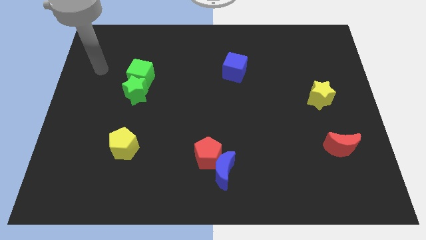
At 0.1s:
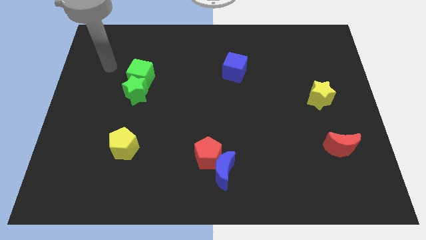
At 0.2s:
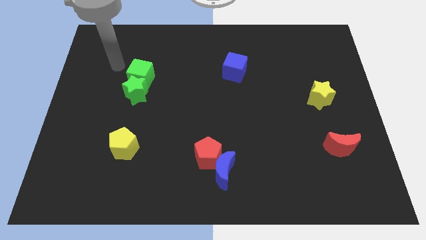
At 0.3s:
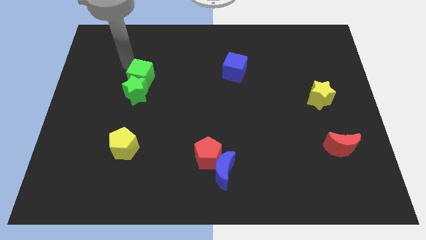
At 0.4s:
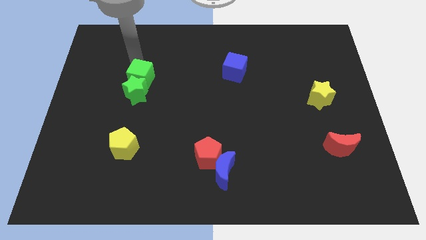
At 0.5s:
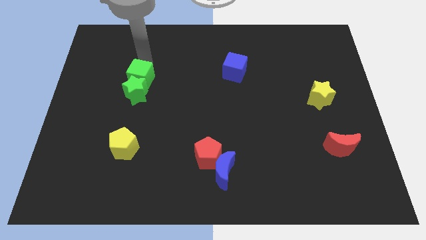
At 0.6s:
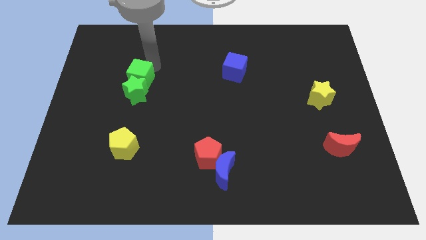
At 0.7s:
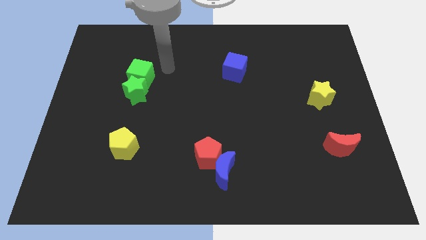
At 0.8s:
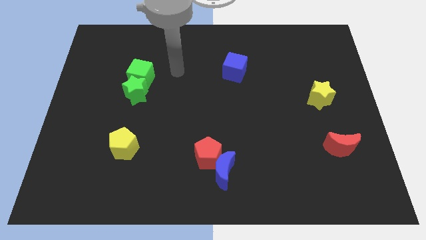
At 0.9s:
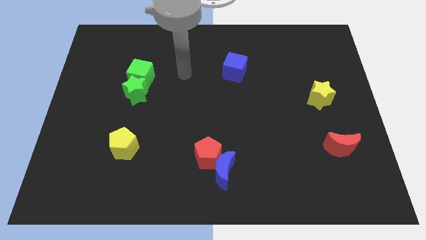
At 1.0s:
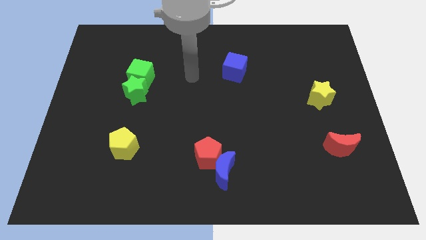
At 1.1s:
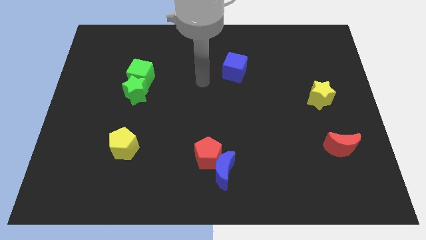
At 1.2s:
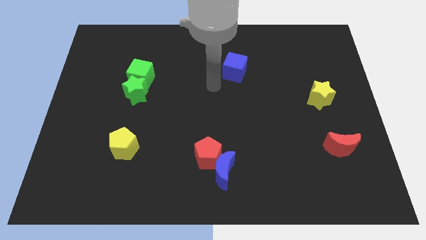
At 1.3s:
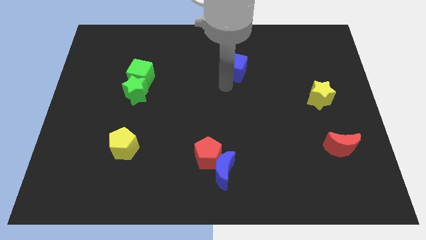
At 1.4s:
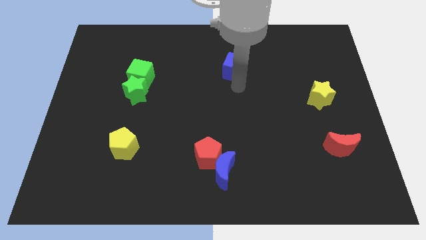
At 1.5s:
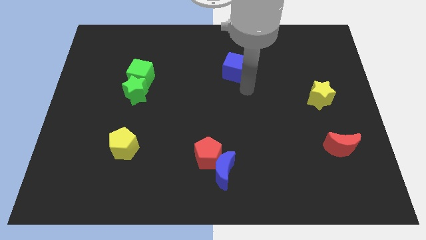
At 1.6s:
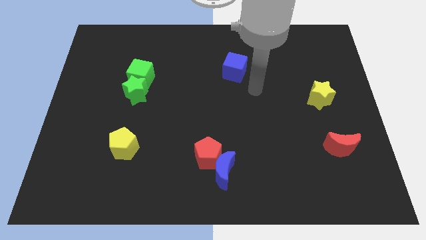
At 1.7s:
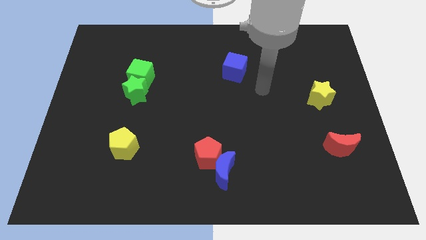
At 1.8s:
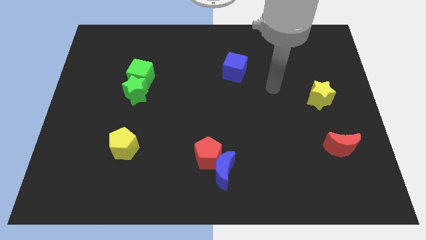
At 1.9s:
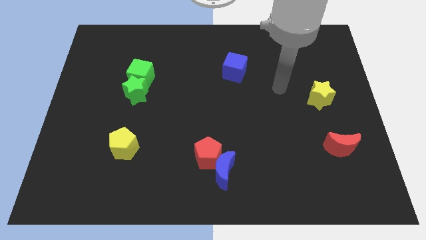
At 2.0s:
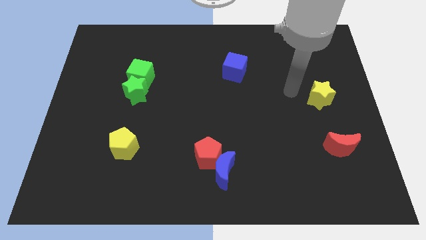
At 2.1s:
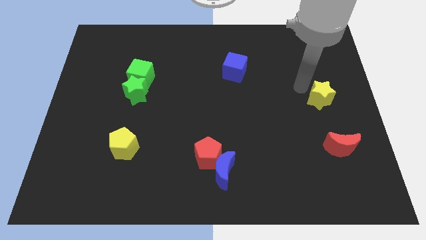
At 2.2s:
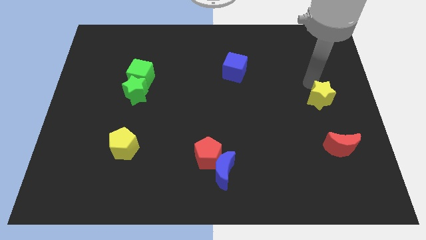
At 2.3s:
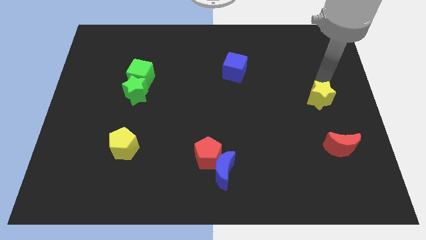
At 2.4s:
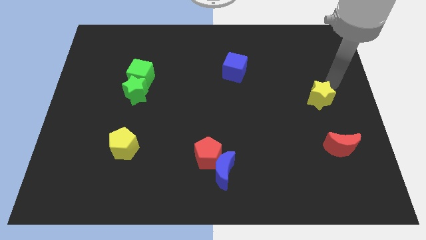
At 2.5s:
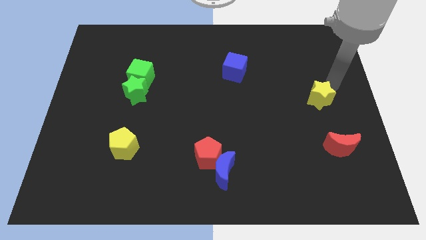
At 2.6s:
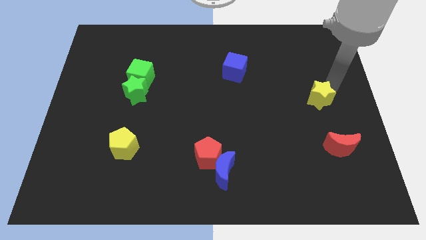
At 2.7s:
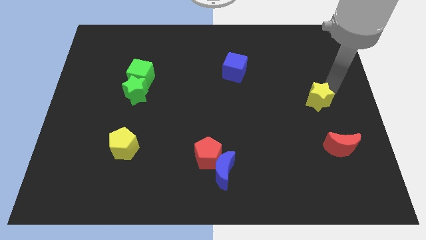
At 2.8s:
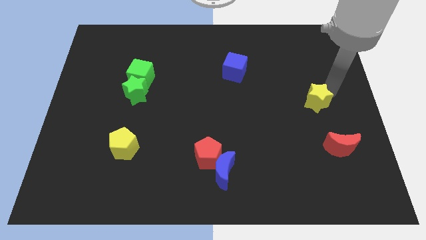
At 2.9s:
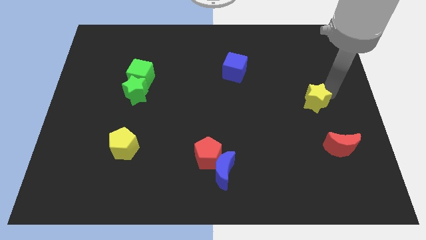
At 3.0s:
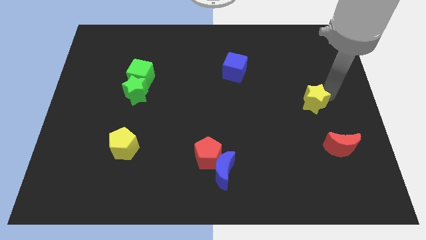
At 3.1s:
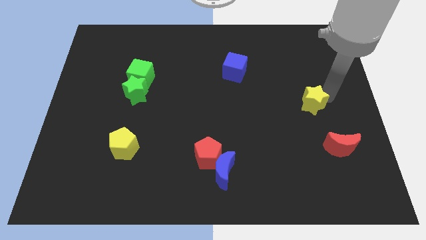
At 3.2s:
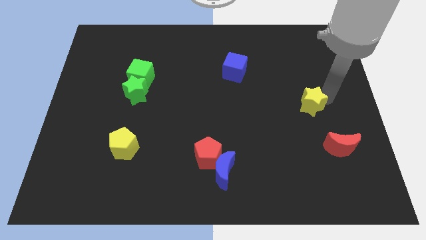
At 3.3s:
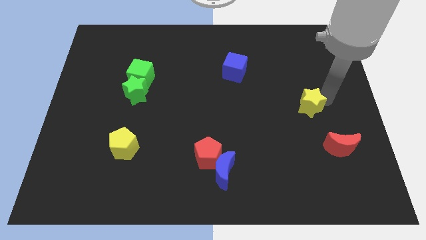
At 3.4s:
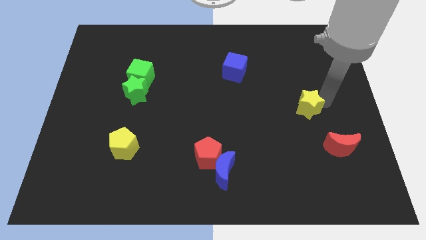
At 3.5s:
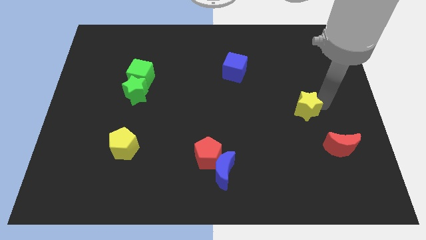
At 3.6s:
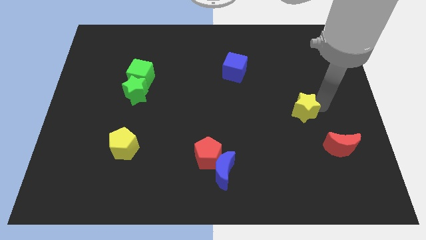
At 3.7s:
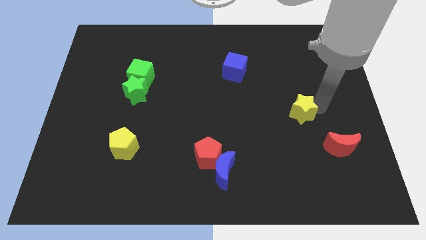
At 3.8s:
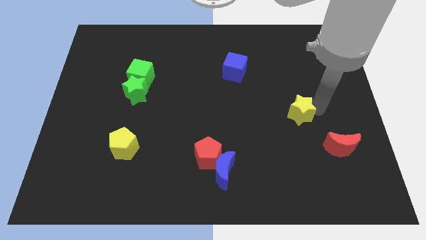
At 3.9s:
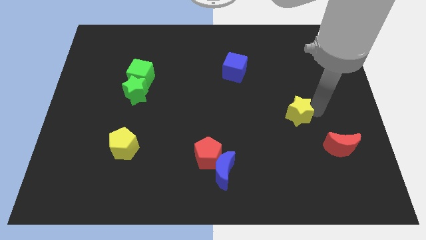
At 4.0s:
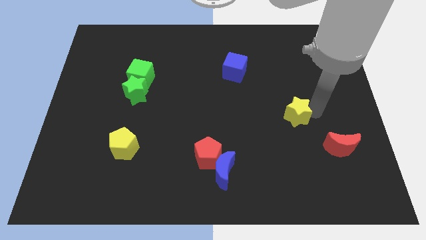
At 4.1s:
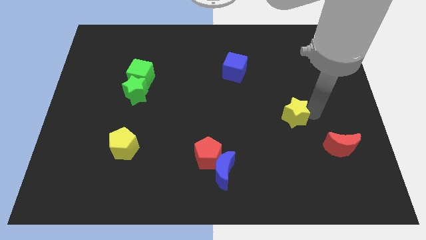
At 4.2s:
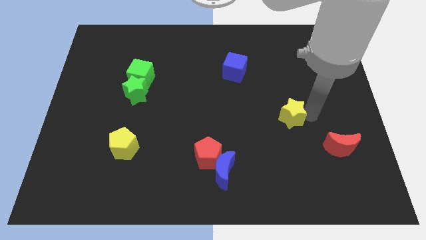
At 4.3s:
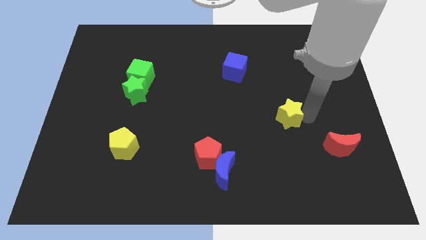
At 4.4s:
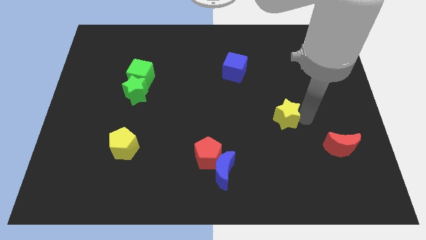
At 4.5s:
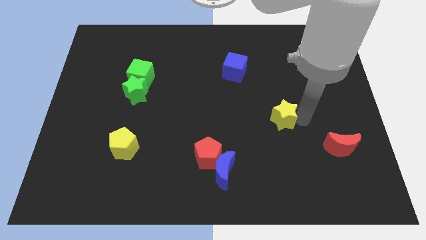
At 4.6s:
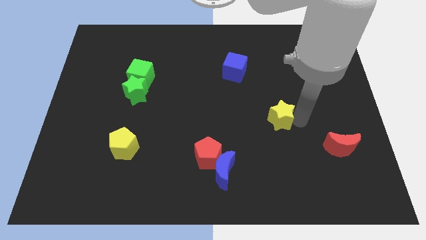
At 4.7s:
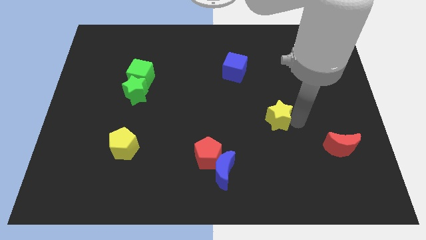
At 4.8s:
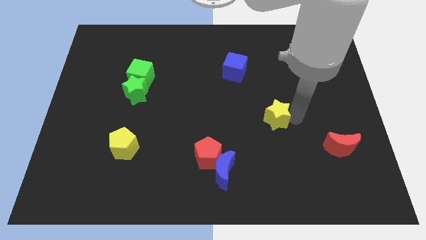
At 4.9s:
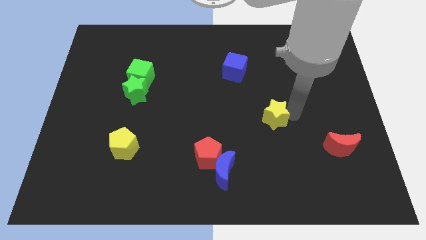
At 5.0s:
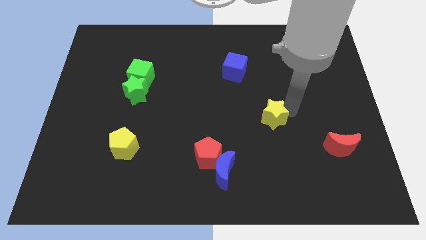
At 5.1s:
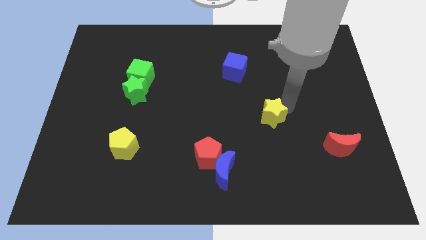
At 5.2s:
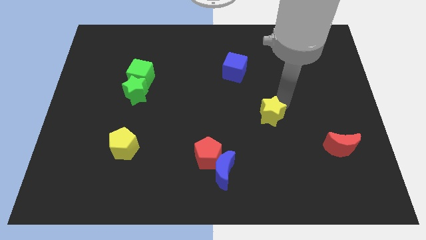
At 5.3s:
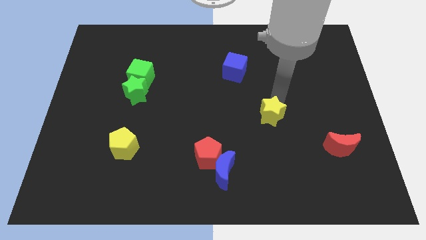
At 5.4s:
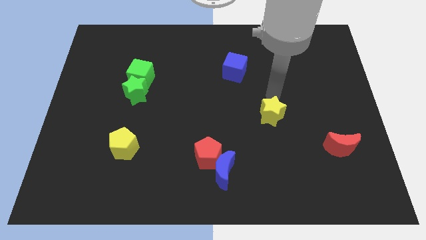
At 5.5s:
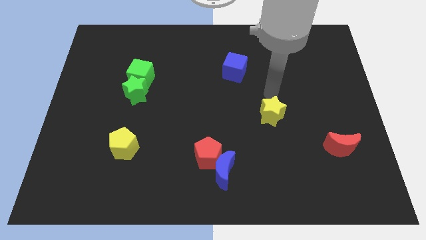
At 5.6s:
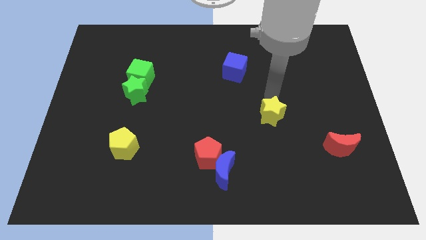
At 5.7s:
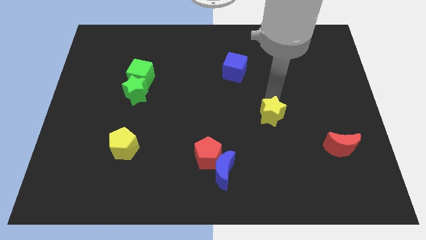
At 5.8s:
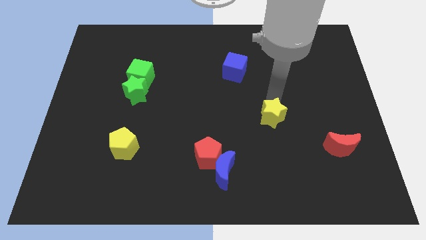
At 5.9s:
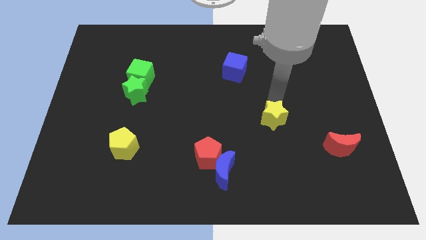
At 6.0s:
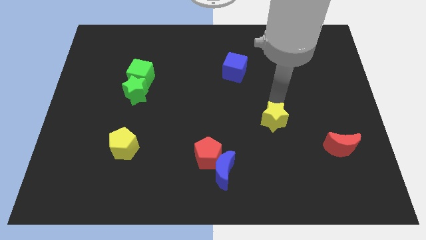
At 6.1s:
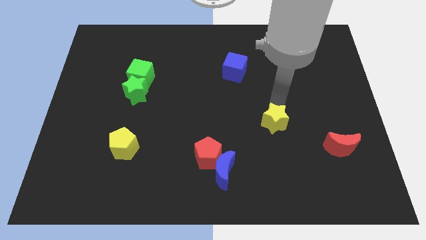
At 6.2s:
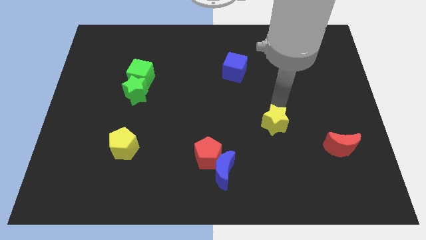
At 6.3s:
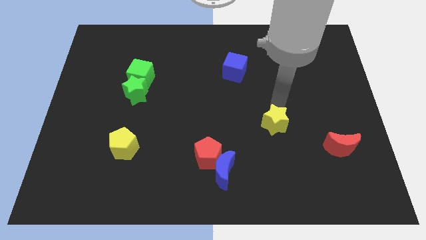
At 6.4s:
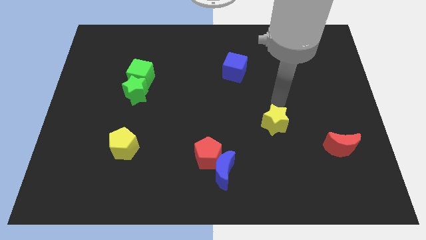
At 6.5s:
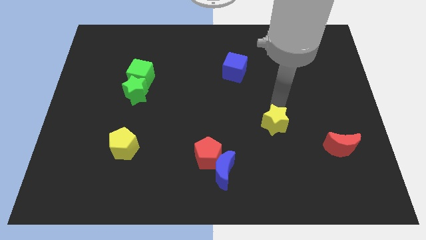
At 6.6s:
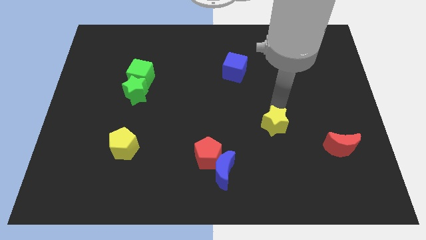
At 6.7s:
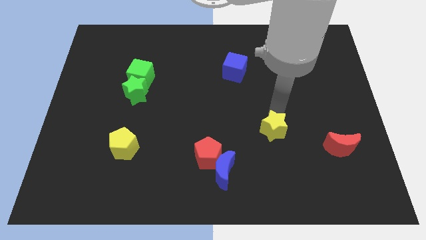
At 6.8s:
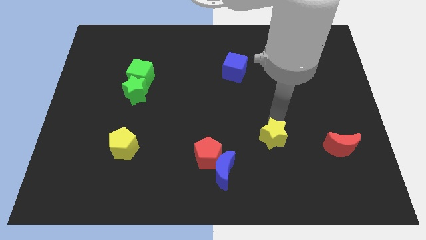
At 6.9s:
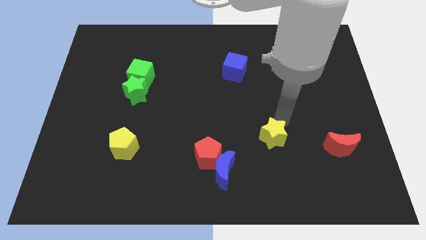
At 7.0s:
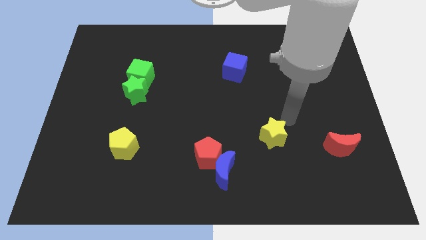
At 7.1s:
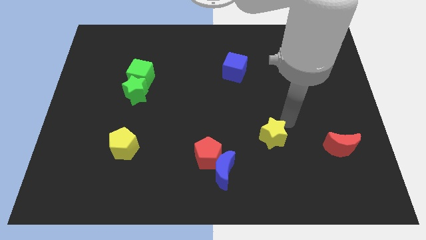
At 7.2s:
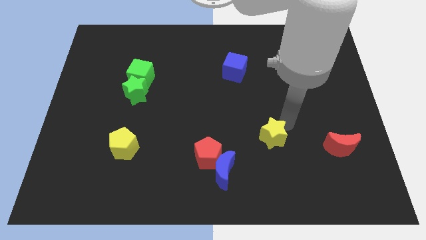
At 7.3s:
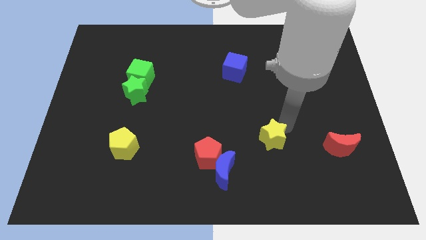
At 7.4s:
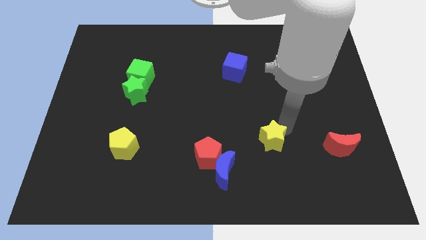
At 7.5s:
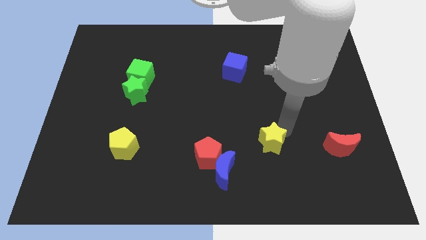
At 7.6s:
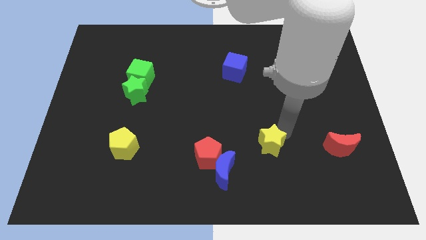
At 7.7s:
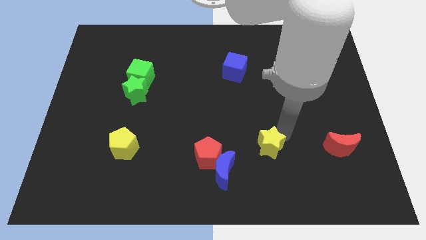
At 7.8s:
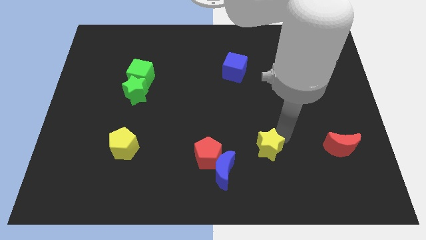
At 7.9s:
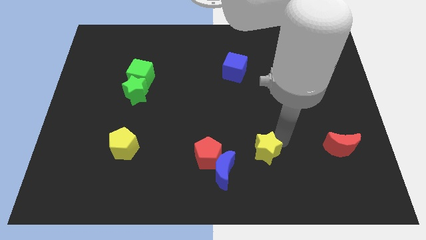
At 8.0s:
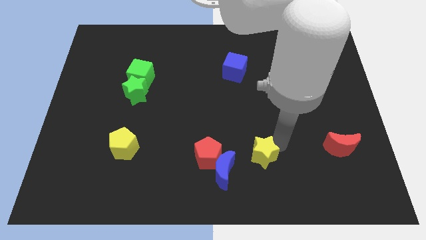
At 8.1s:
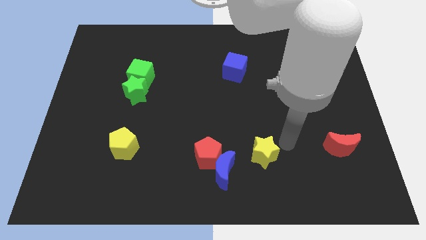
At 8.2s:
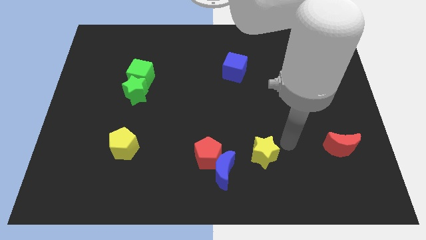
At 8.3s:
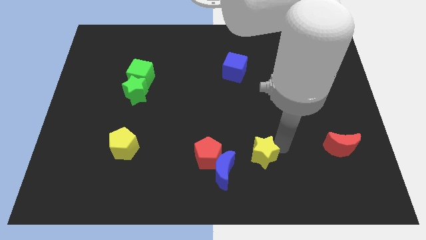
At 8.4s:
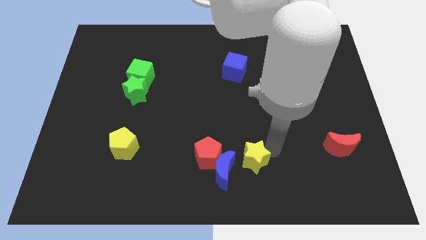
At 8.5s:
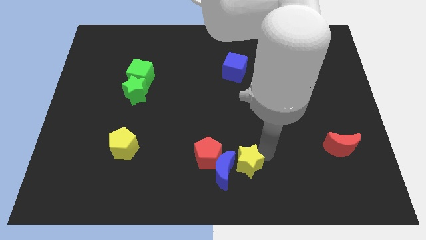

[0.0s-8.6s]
slide the yellow star close to the blue moon
